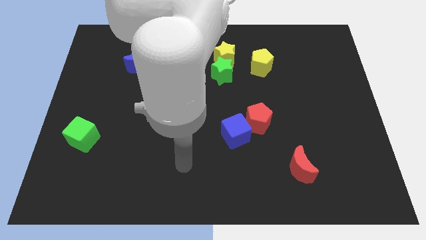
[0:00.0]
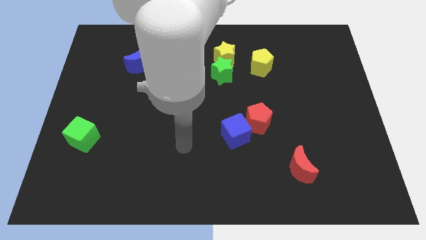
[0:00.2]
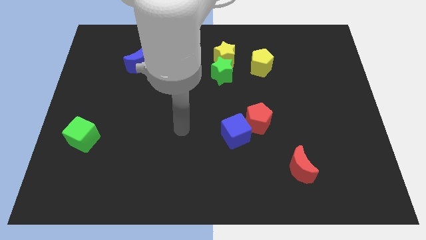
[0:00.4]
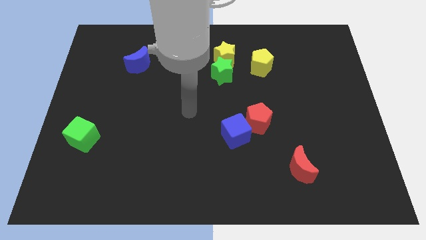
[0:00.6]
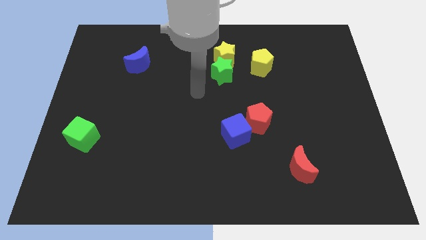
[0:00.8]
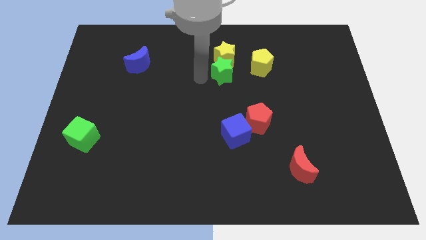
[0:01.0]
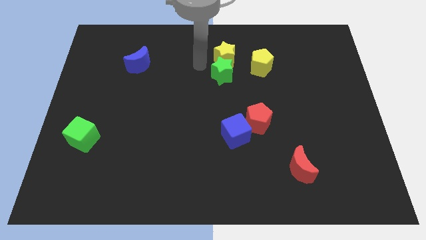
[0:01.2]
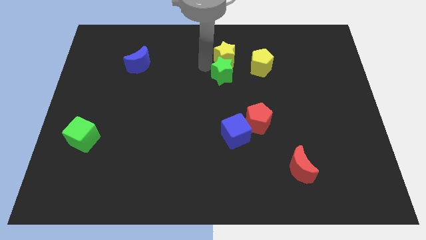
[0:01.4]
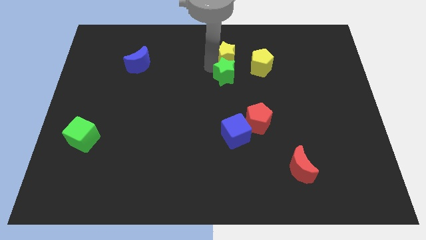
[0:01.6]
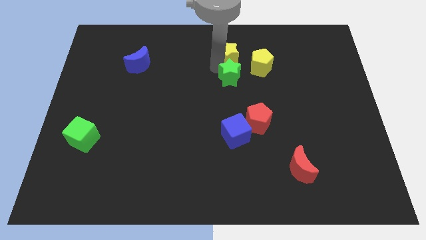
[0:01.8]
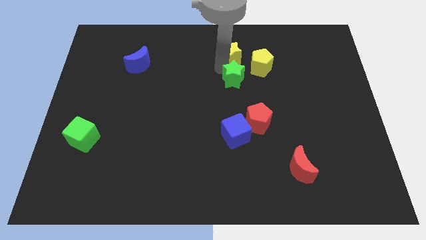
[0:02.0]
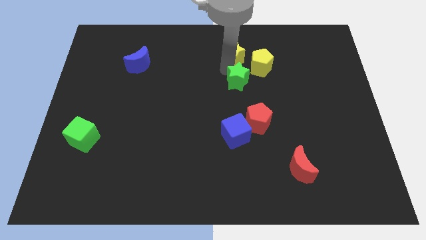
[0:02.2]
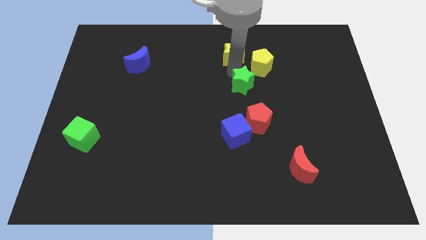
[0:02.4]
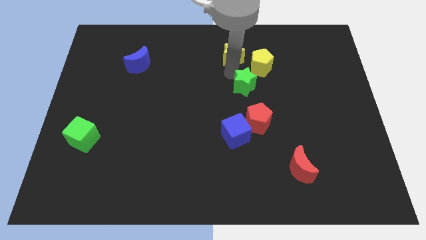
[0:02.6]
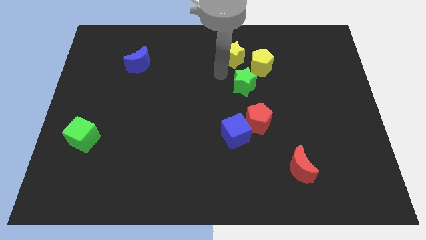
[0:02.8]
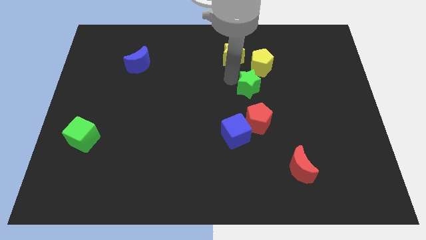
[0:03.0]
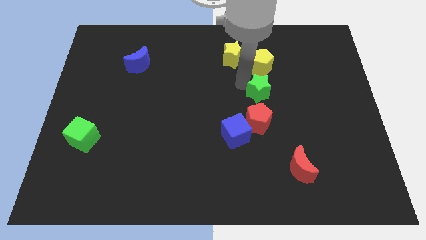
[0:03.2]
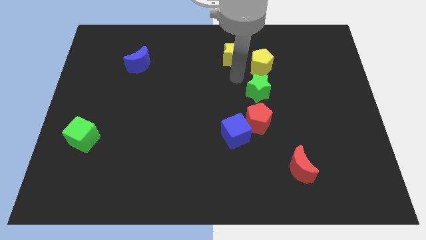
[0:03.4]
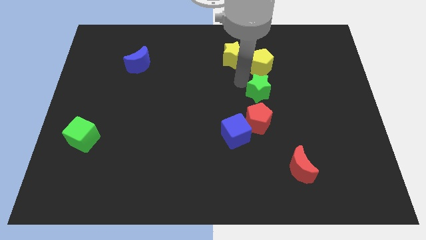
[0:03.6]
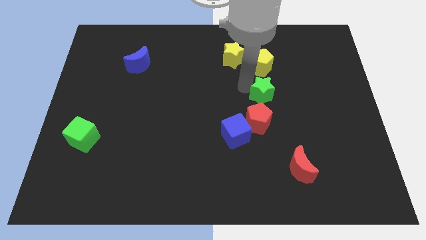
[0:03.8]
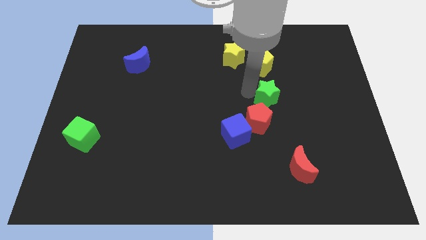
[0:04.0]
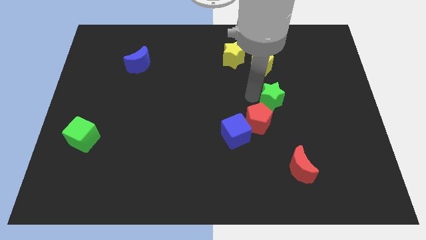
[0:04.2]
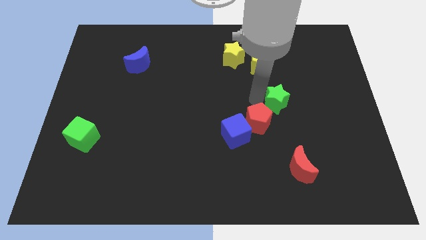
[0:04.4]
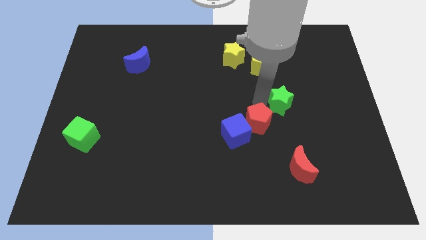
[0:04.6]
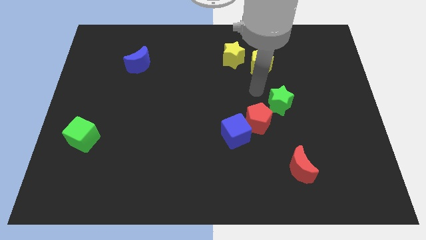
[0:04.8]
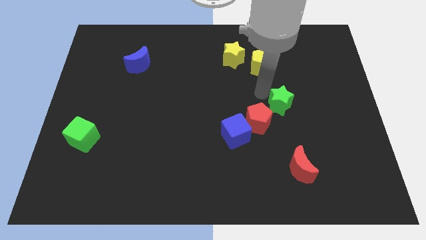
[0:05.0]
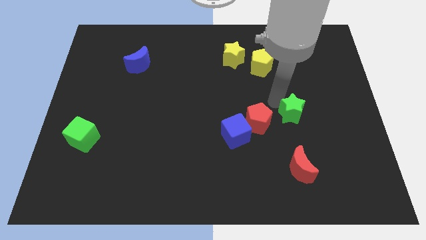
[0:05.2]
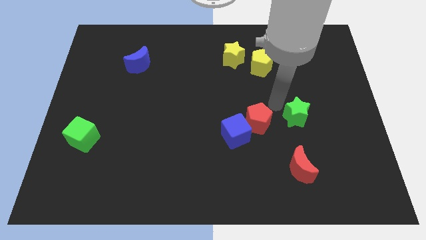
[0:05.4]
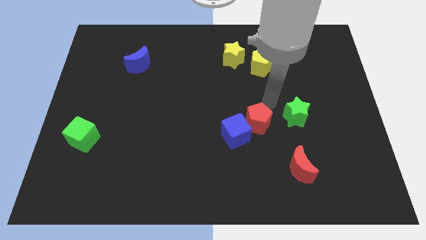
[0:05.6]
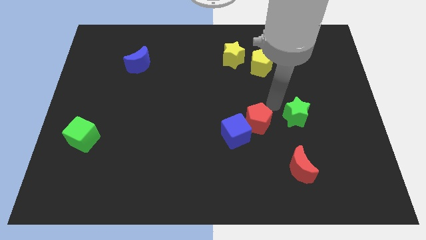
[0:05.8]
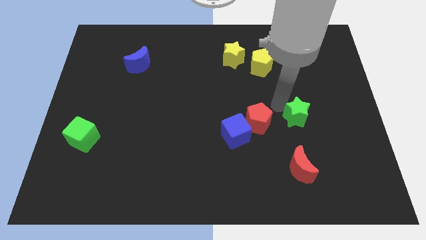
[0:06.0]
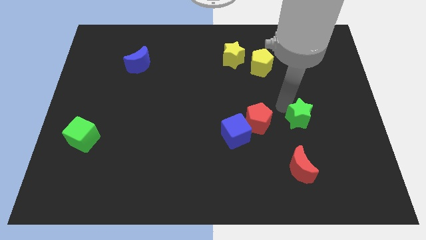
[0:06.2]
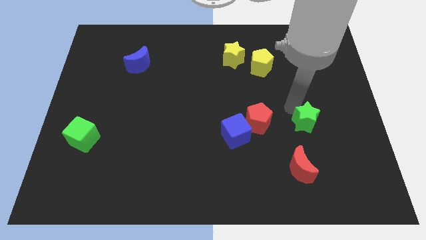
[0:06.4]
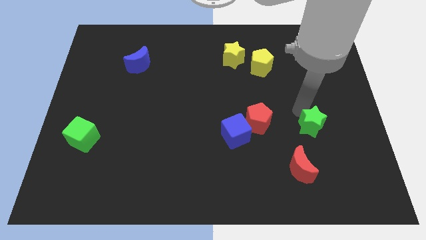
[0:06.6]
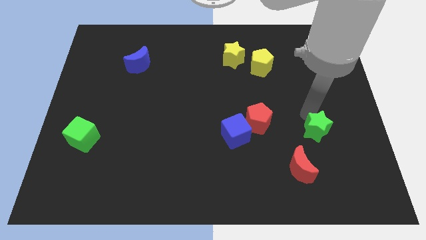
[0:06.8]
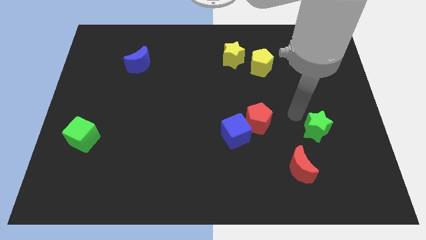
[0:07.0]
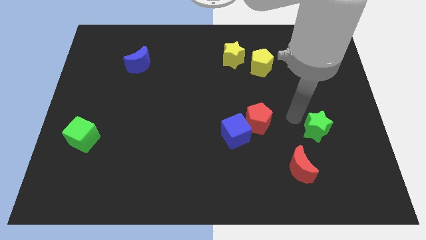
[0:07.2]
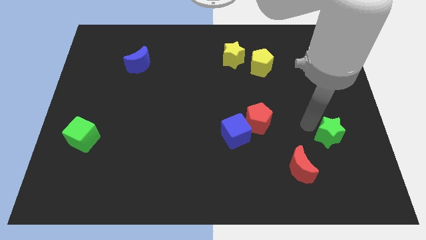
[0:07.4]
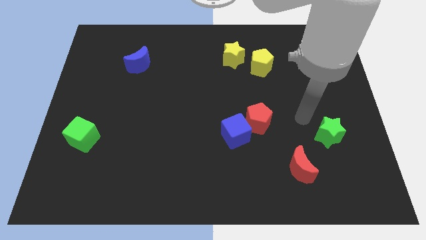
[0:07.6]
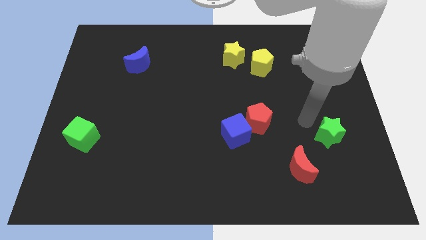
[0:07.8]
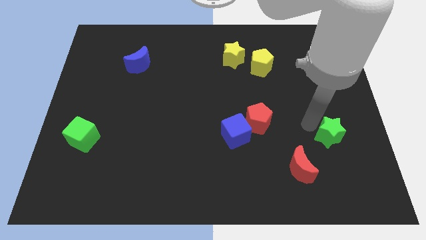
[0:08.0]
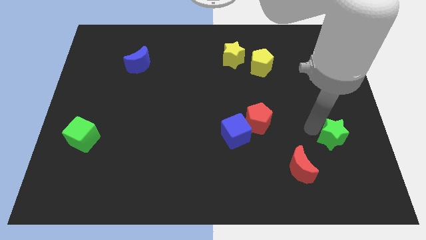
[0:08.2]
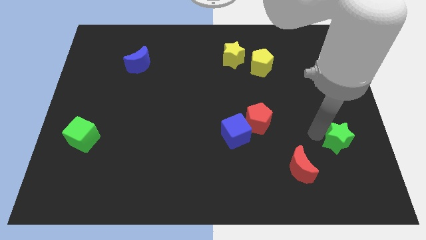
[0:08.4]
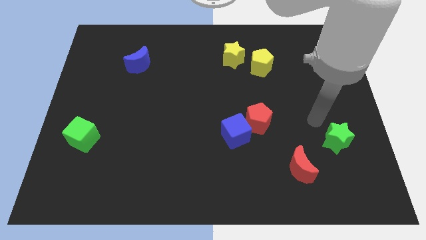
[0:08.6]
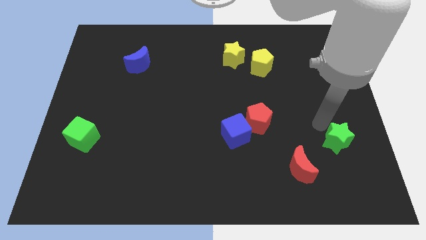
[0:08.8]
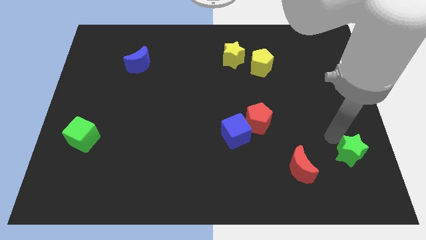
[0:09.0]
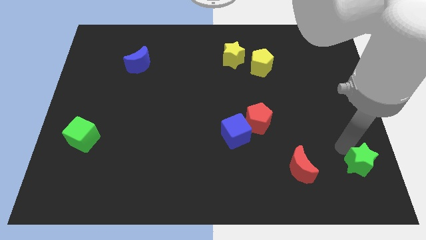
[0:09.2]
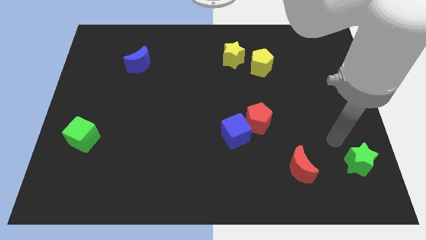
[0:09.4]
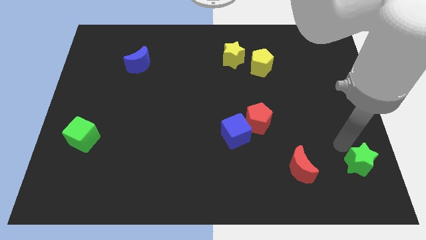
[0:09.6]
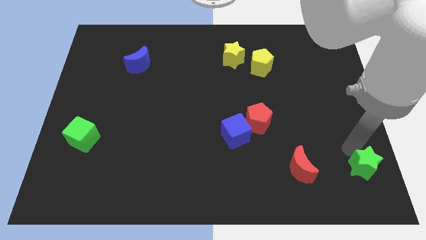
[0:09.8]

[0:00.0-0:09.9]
move the green star to the bottom right

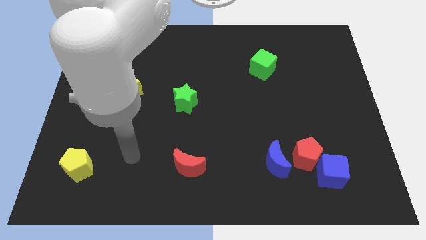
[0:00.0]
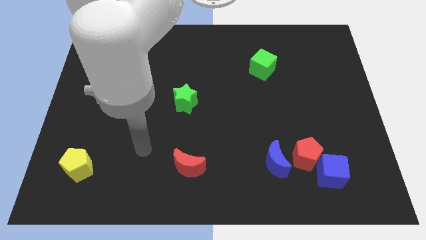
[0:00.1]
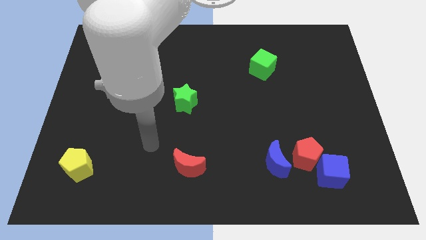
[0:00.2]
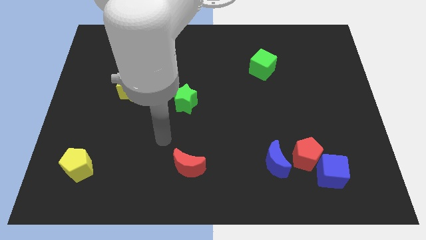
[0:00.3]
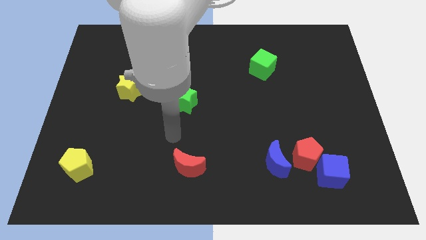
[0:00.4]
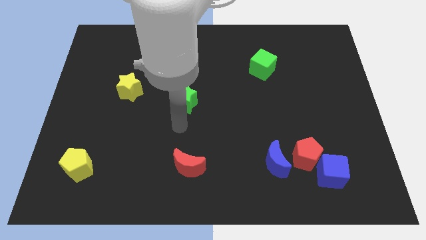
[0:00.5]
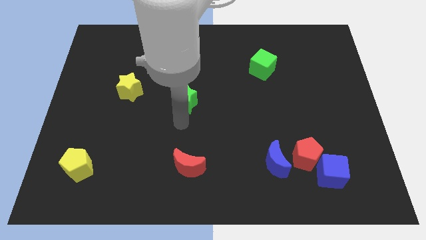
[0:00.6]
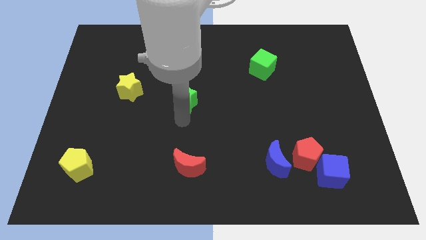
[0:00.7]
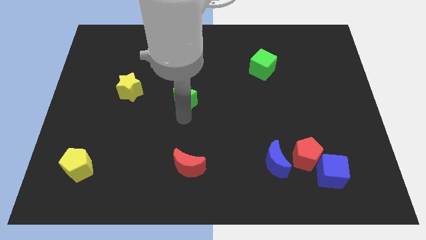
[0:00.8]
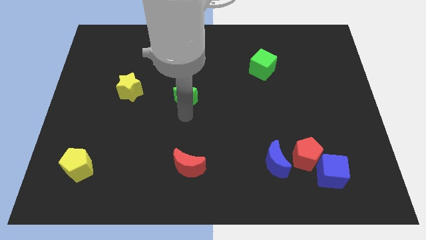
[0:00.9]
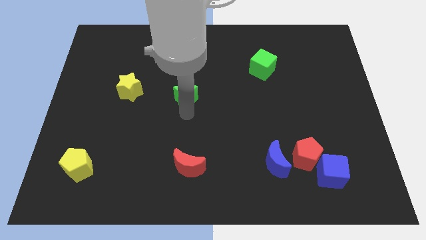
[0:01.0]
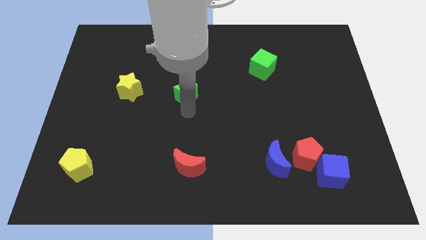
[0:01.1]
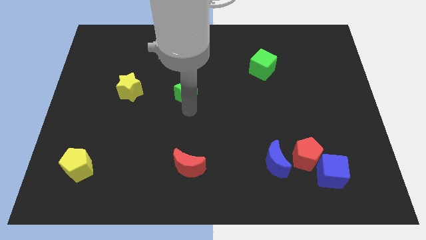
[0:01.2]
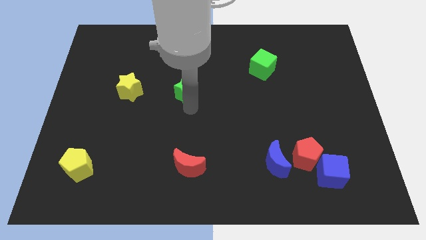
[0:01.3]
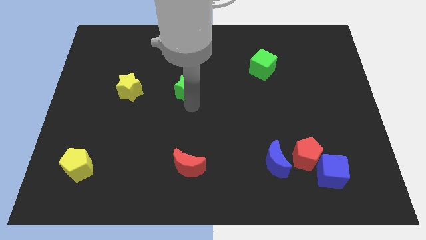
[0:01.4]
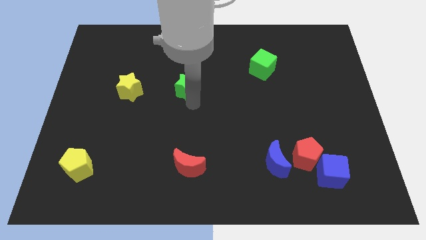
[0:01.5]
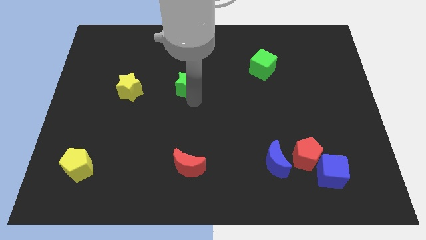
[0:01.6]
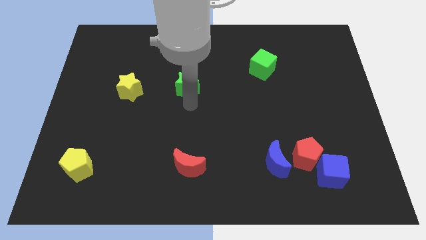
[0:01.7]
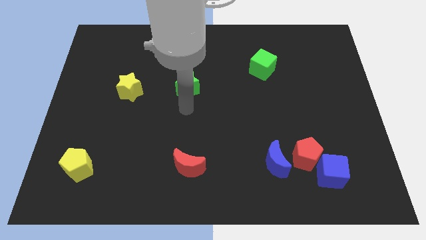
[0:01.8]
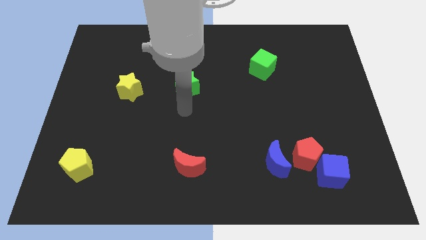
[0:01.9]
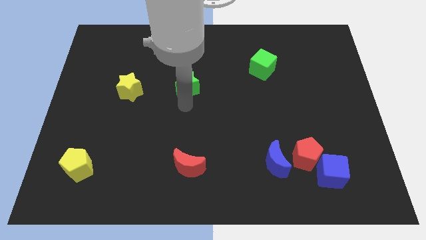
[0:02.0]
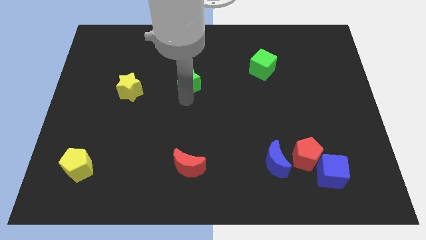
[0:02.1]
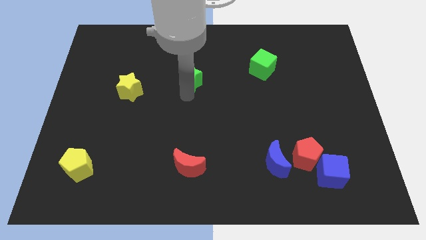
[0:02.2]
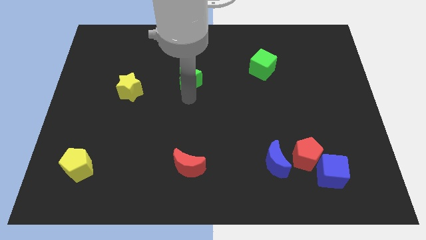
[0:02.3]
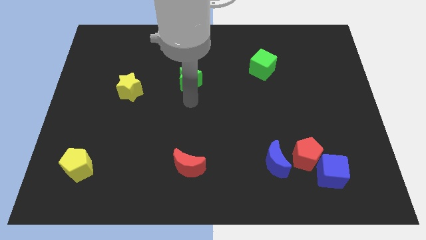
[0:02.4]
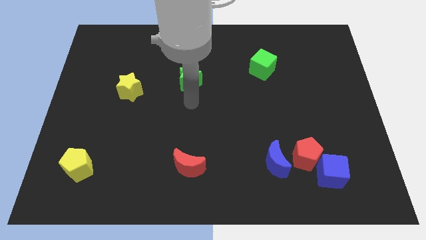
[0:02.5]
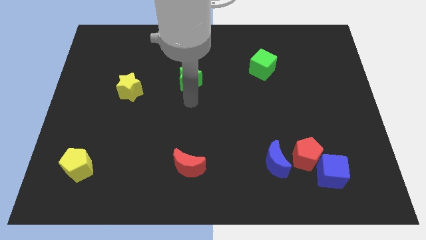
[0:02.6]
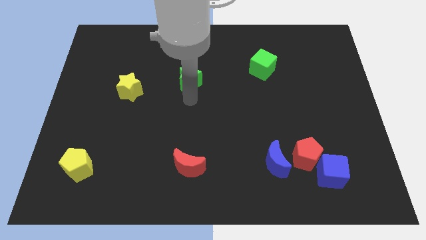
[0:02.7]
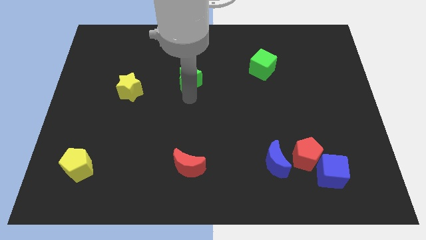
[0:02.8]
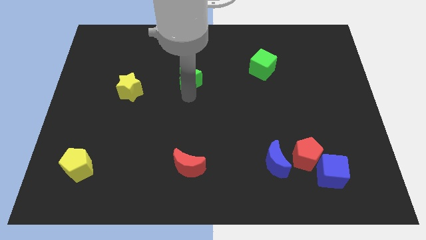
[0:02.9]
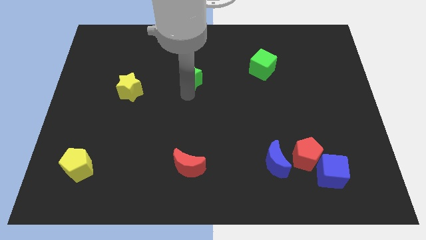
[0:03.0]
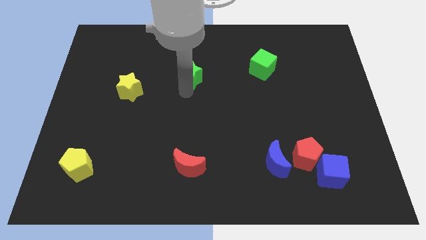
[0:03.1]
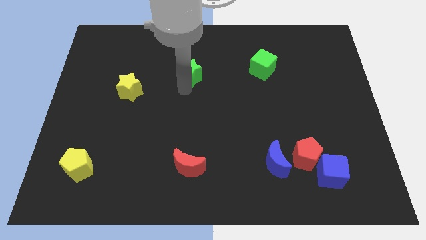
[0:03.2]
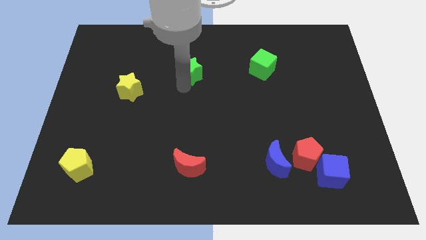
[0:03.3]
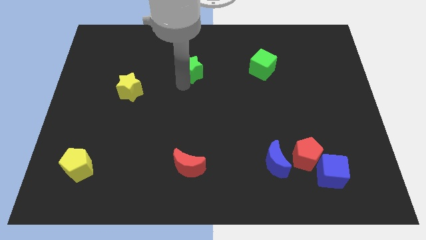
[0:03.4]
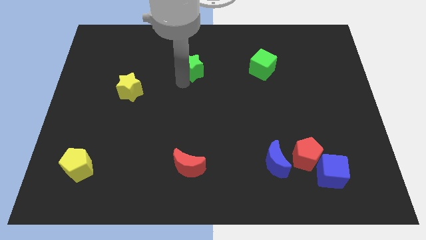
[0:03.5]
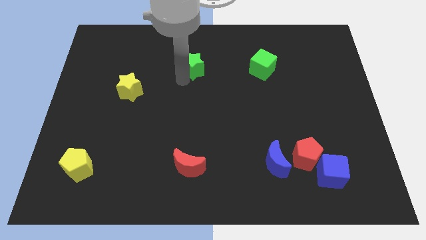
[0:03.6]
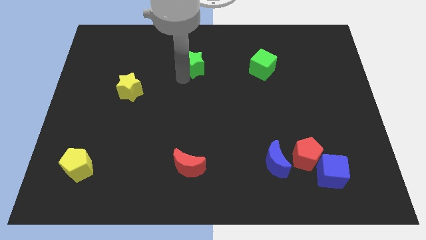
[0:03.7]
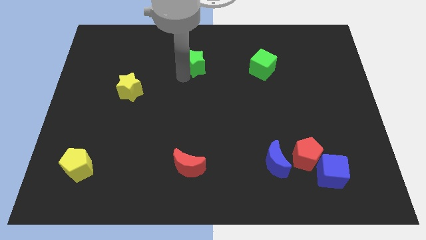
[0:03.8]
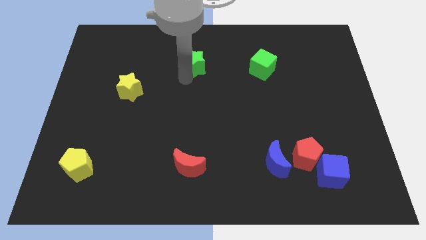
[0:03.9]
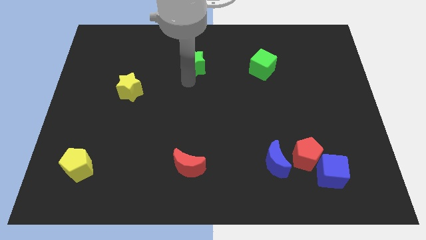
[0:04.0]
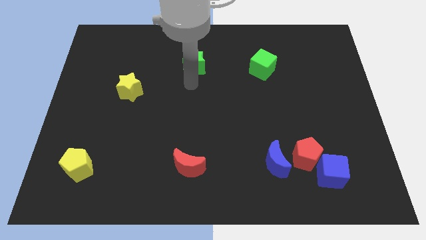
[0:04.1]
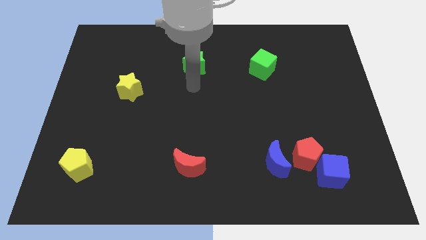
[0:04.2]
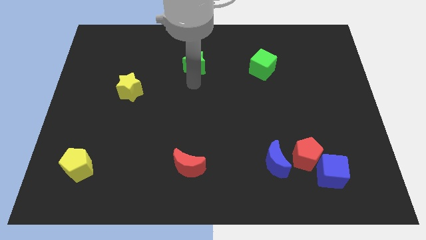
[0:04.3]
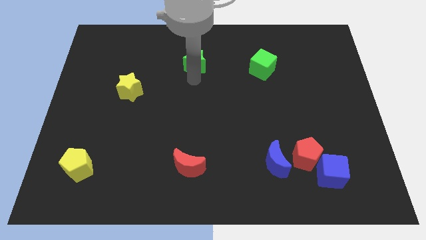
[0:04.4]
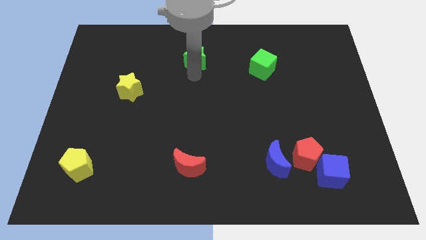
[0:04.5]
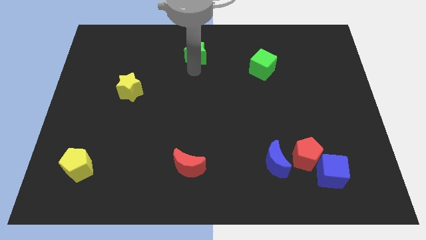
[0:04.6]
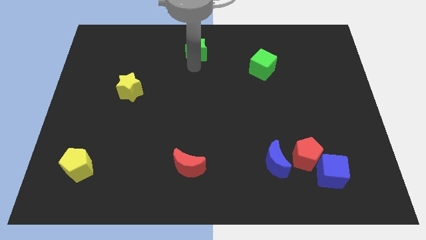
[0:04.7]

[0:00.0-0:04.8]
slide the green star to the towards your base
